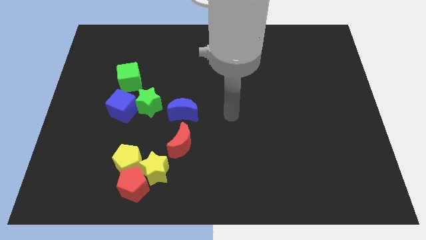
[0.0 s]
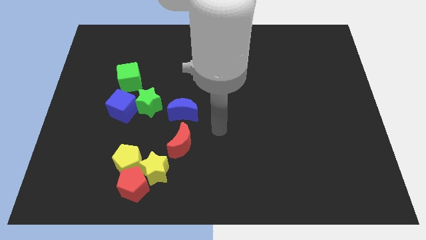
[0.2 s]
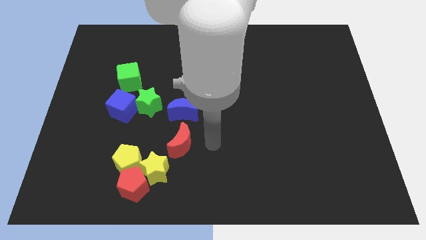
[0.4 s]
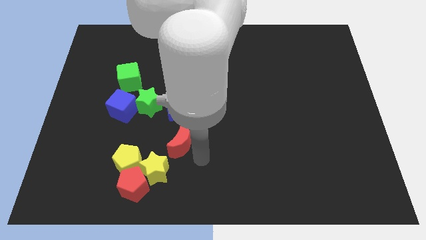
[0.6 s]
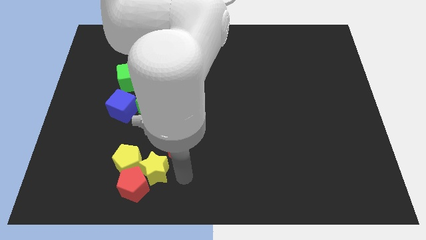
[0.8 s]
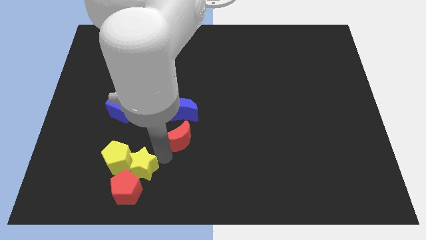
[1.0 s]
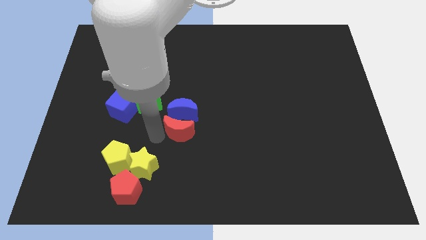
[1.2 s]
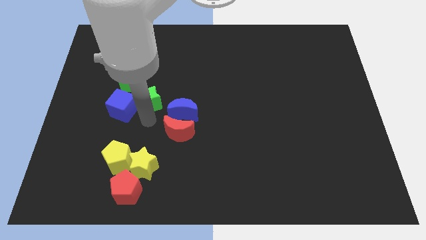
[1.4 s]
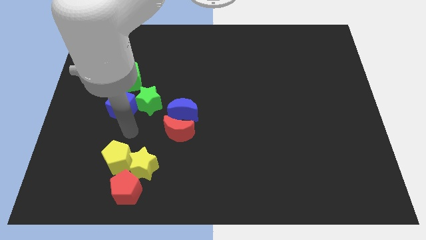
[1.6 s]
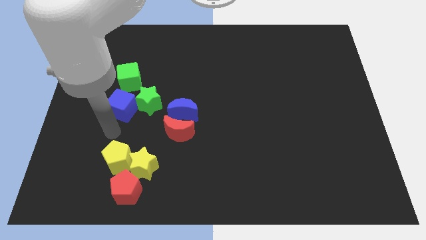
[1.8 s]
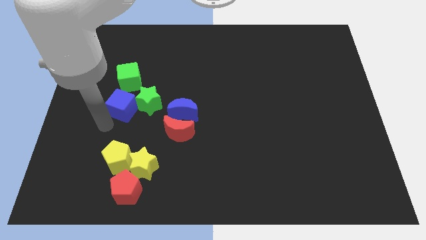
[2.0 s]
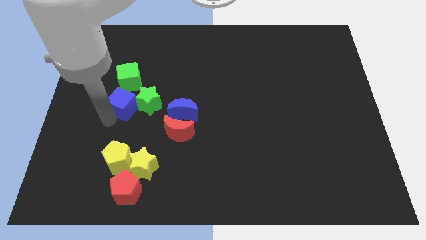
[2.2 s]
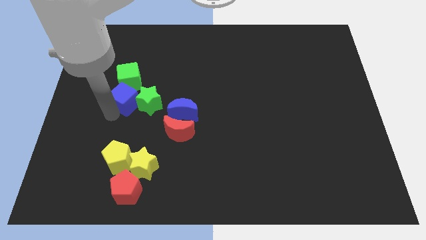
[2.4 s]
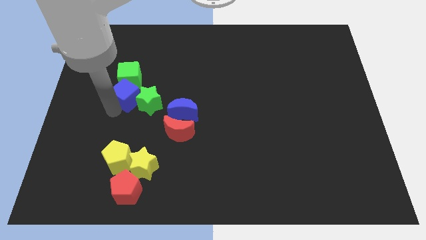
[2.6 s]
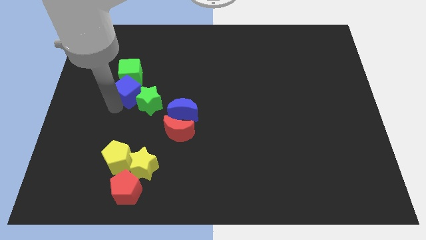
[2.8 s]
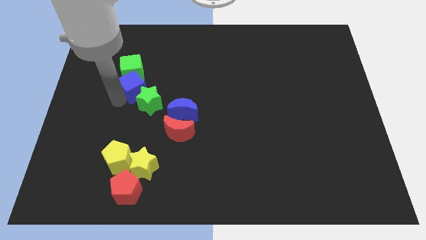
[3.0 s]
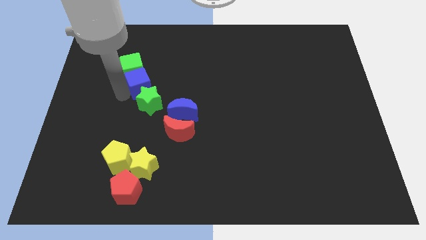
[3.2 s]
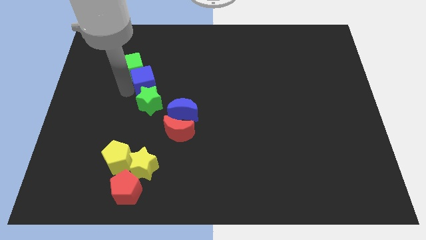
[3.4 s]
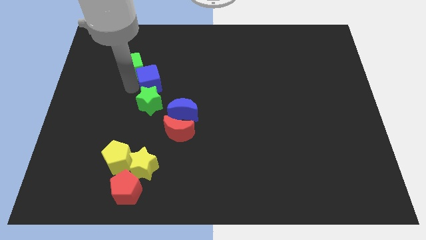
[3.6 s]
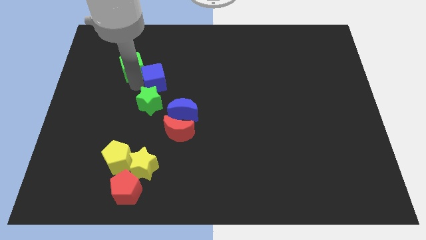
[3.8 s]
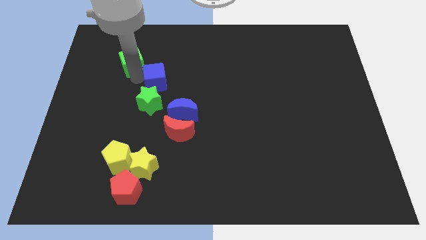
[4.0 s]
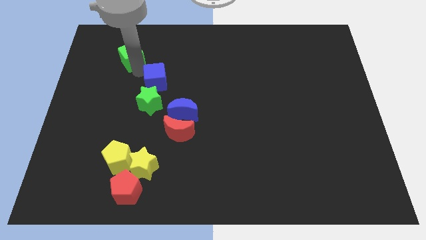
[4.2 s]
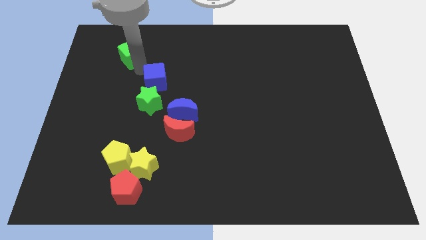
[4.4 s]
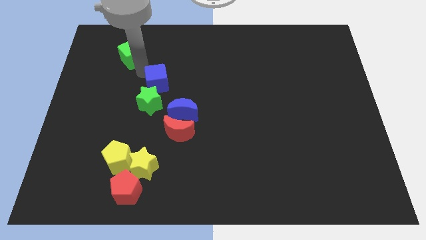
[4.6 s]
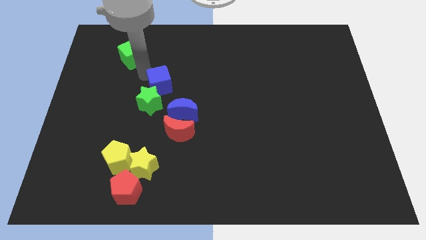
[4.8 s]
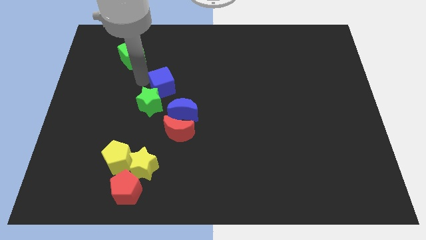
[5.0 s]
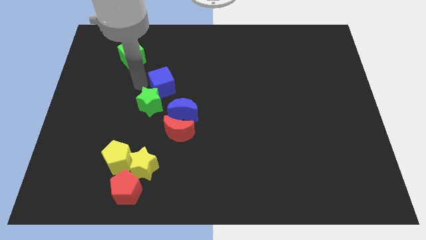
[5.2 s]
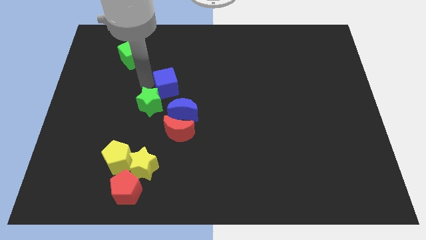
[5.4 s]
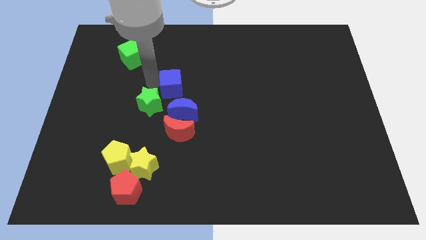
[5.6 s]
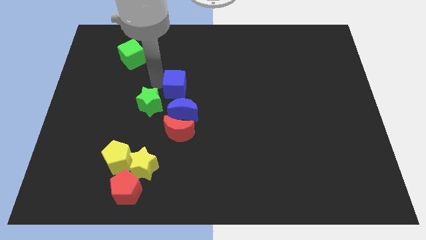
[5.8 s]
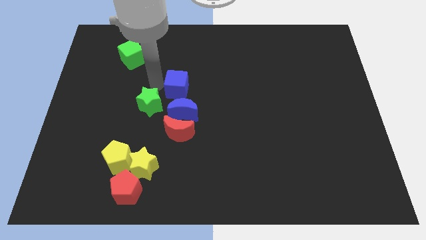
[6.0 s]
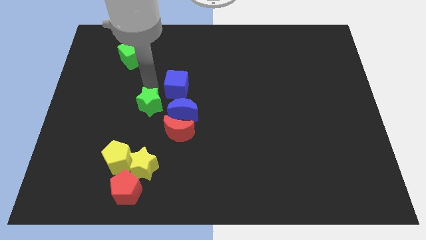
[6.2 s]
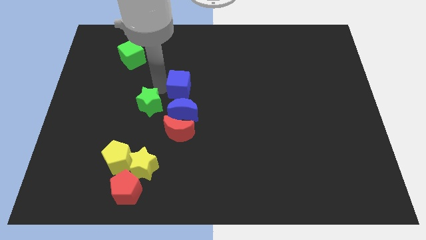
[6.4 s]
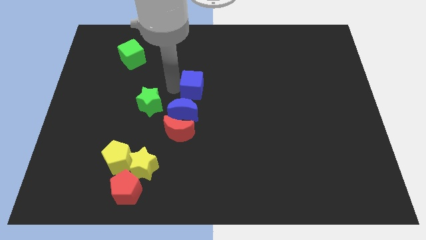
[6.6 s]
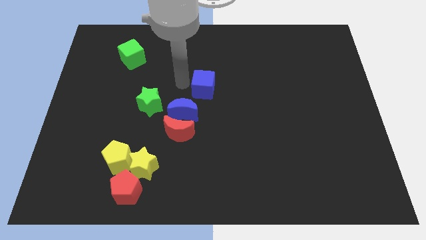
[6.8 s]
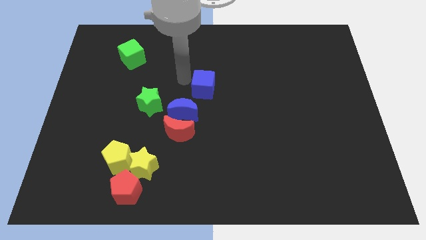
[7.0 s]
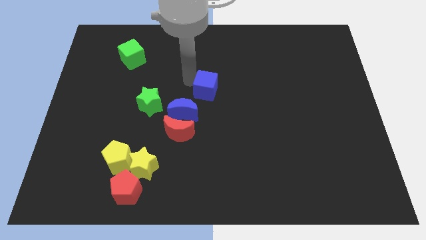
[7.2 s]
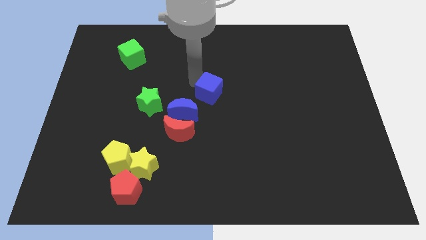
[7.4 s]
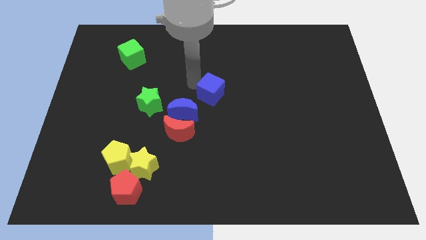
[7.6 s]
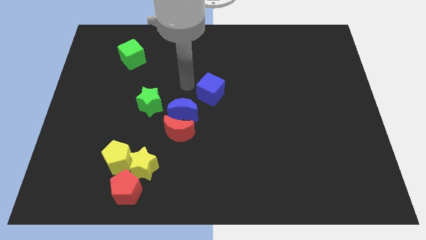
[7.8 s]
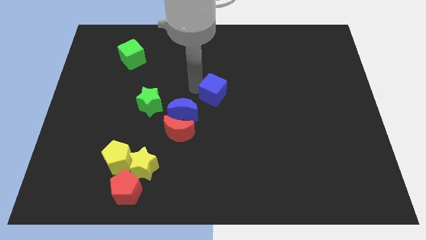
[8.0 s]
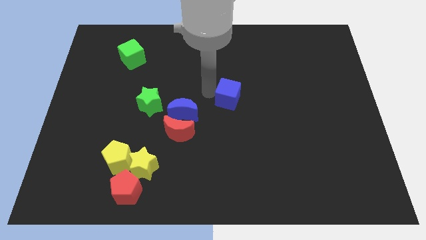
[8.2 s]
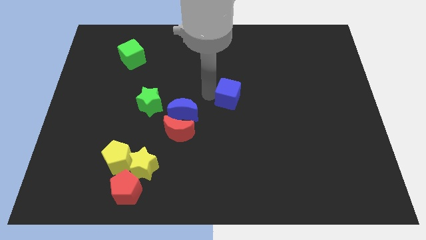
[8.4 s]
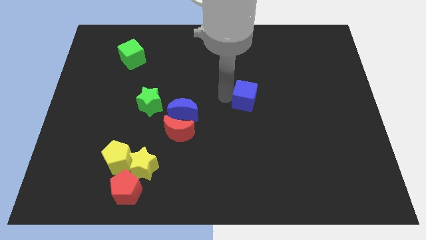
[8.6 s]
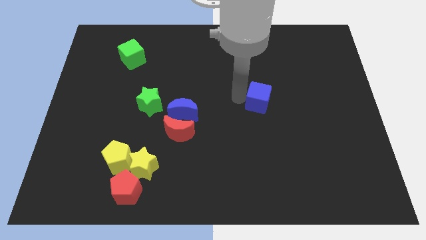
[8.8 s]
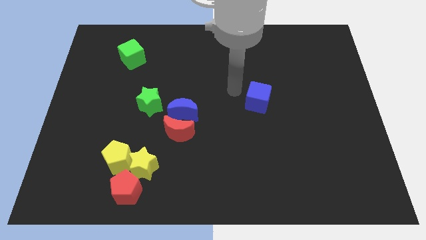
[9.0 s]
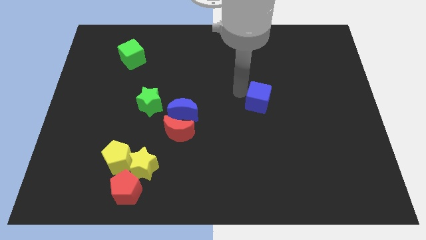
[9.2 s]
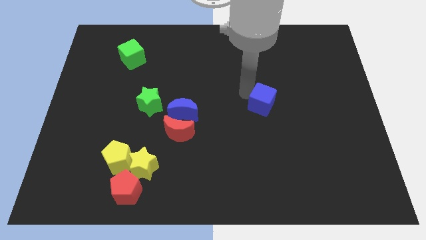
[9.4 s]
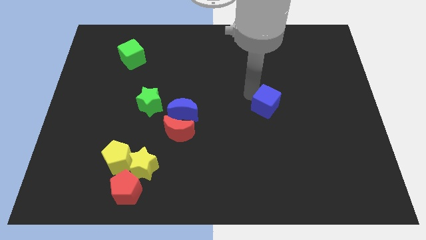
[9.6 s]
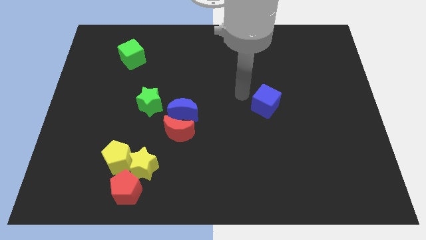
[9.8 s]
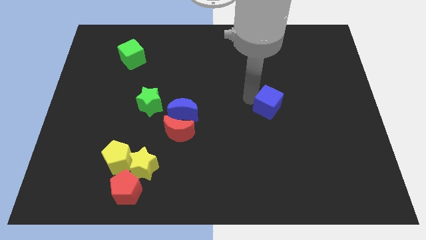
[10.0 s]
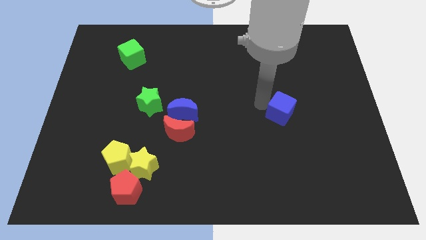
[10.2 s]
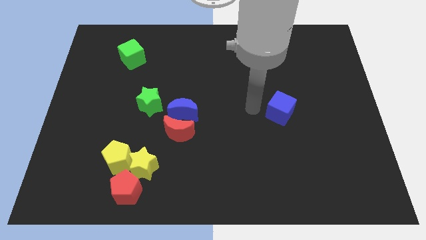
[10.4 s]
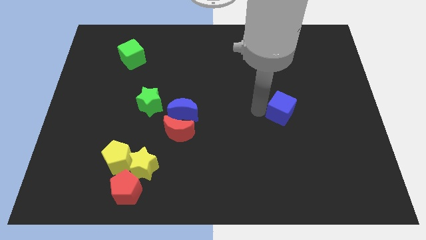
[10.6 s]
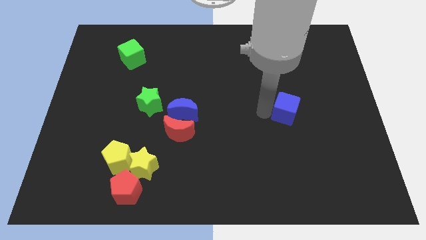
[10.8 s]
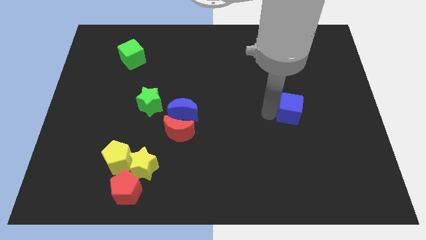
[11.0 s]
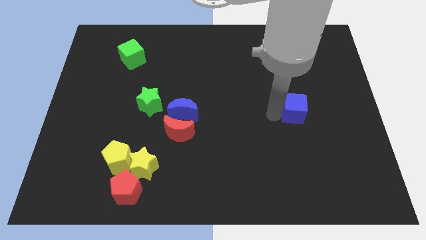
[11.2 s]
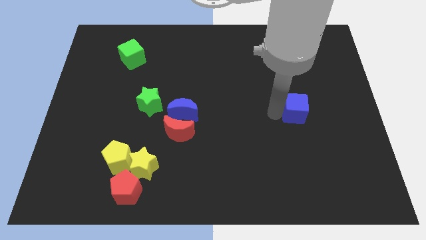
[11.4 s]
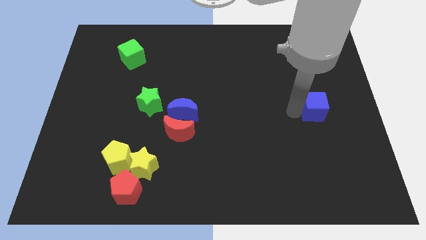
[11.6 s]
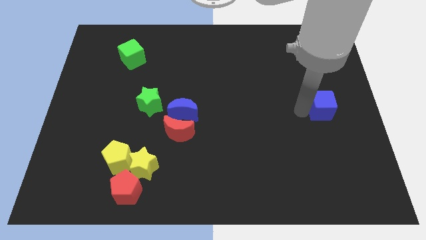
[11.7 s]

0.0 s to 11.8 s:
put the blue cube to the center right

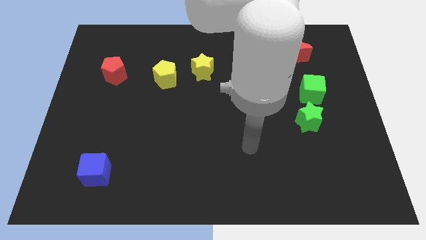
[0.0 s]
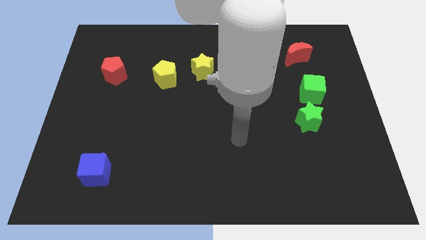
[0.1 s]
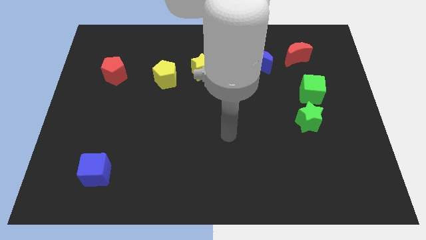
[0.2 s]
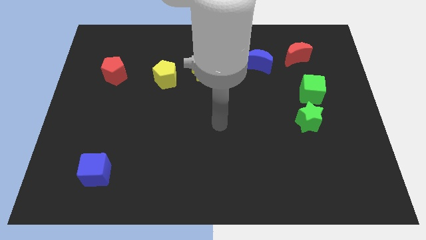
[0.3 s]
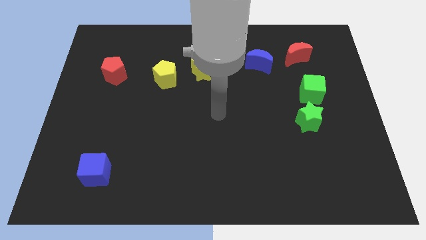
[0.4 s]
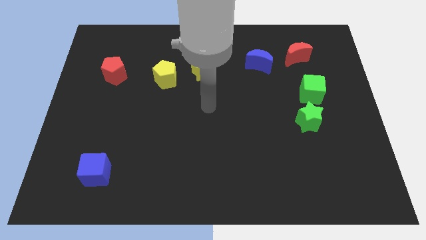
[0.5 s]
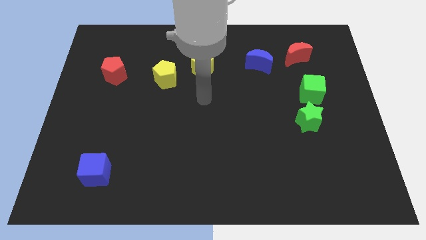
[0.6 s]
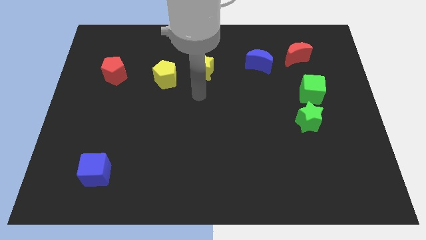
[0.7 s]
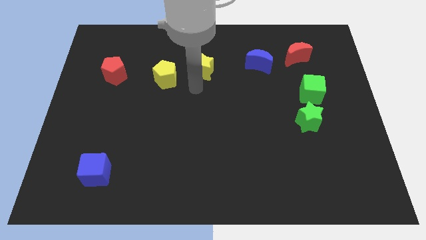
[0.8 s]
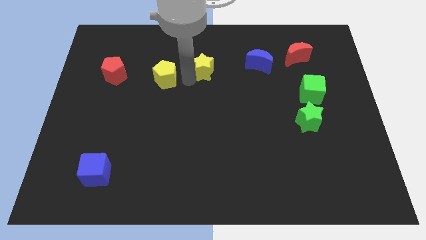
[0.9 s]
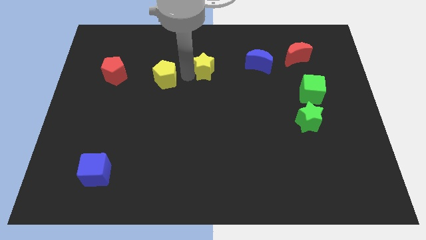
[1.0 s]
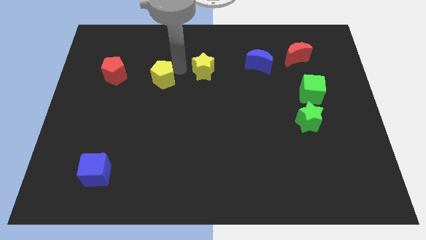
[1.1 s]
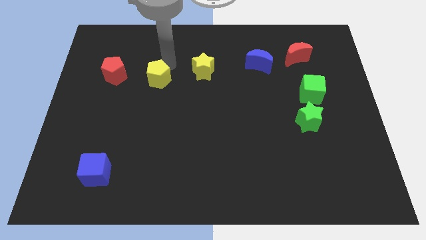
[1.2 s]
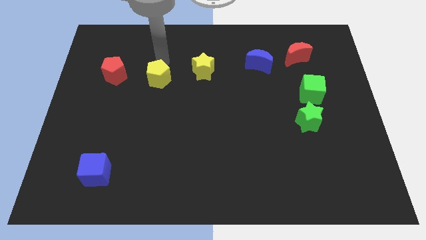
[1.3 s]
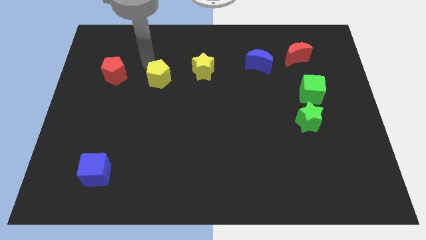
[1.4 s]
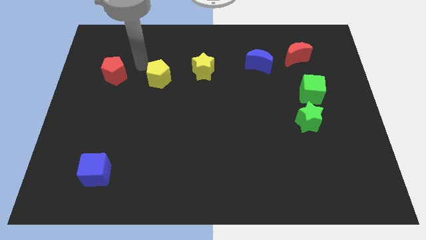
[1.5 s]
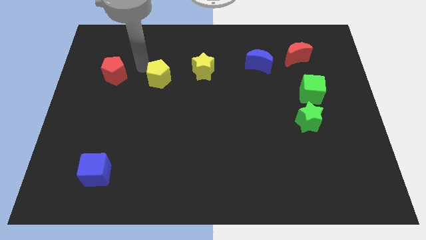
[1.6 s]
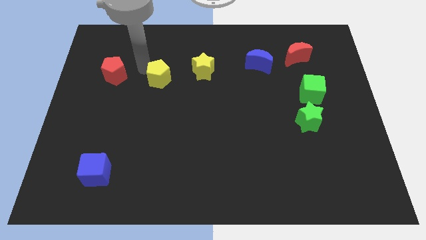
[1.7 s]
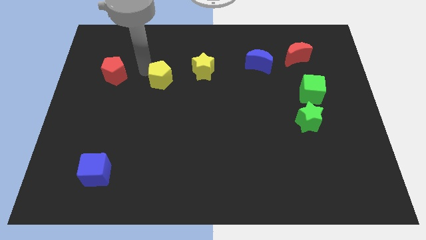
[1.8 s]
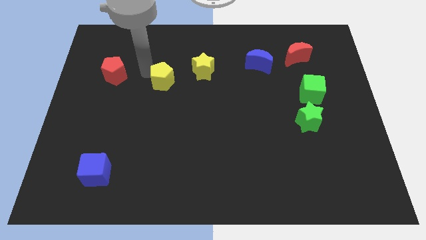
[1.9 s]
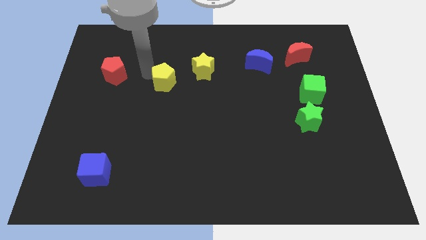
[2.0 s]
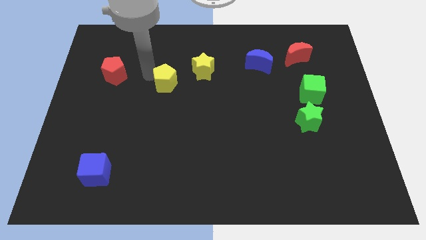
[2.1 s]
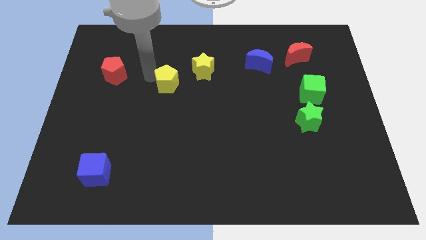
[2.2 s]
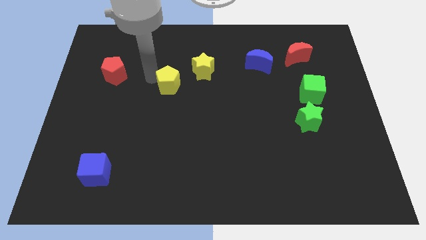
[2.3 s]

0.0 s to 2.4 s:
slide the yellow pentagon to the center
